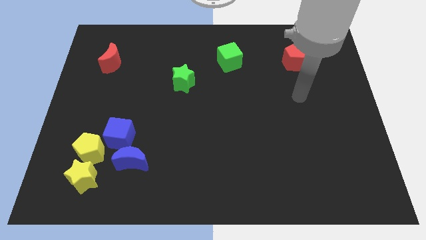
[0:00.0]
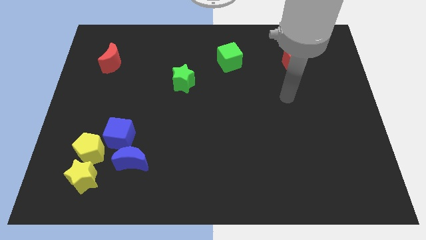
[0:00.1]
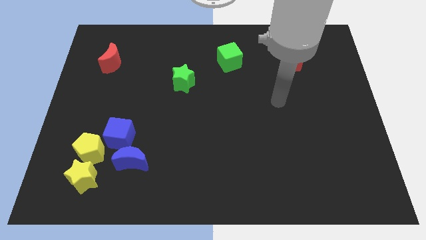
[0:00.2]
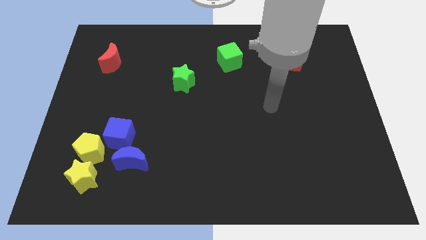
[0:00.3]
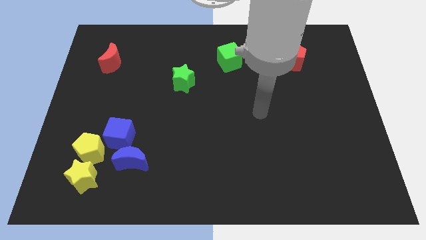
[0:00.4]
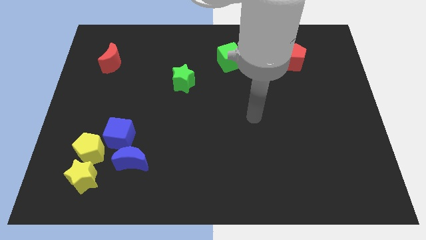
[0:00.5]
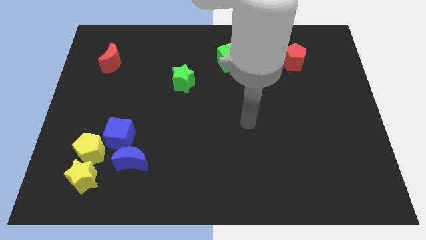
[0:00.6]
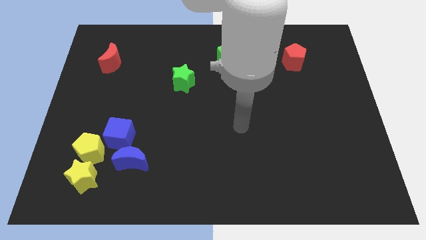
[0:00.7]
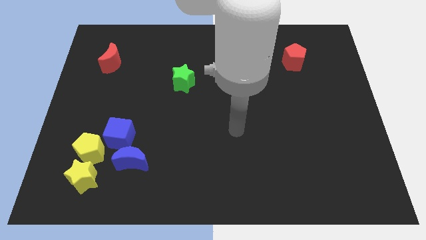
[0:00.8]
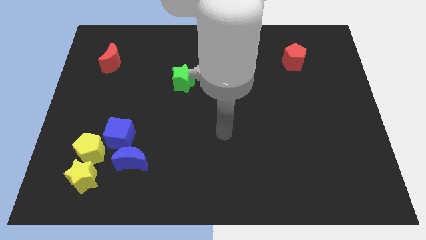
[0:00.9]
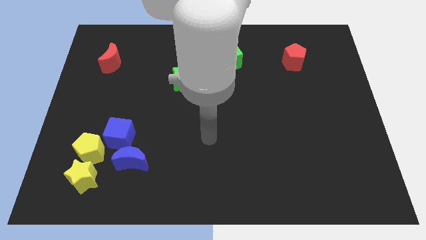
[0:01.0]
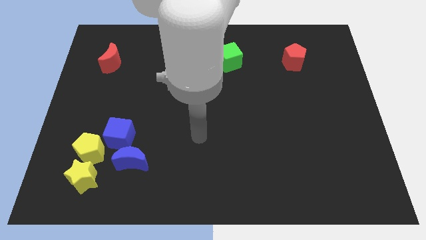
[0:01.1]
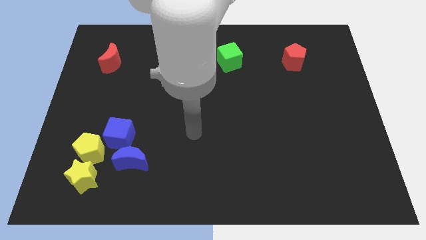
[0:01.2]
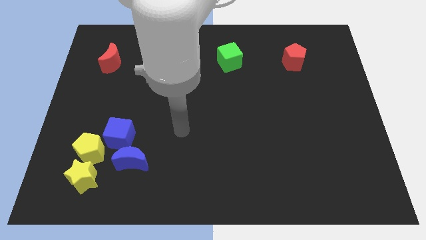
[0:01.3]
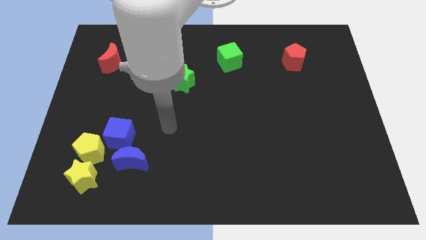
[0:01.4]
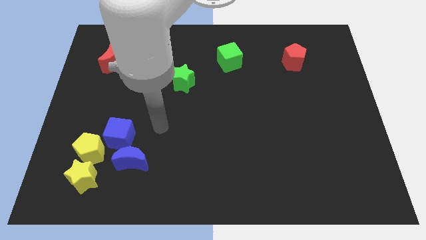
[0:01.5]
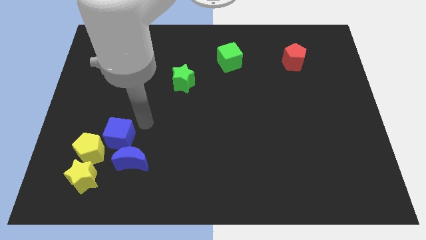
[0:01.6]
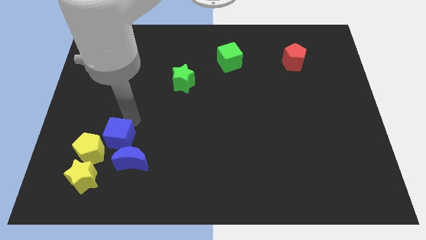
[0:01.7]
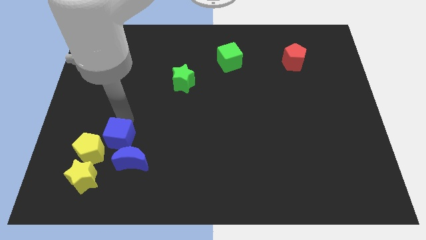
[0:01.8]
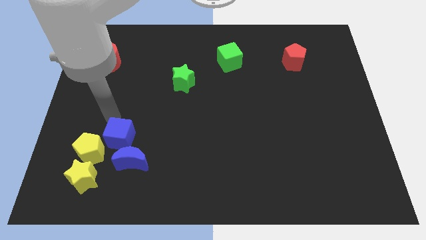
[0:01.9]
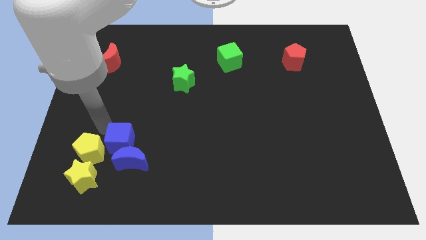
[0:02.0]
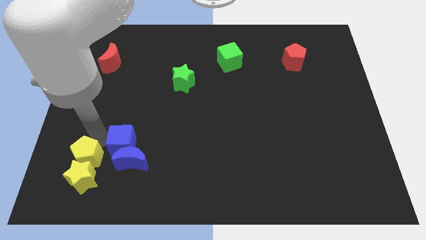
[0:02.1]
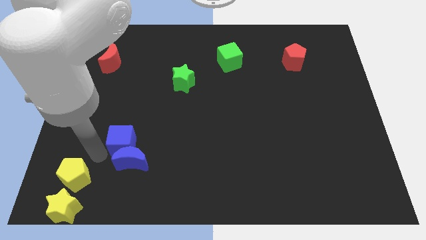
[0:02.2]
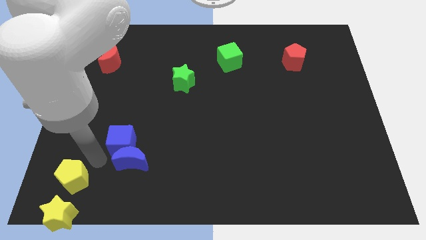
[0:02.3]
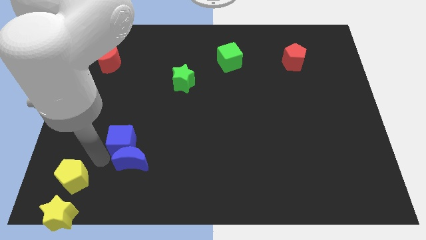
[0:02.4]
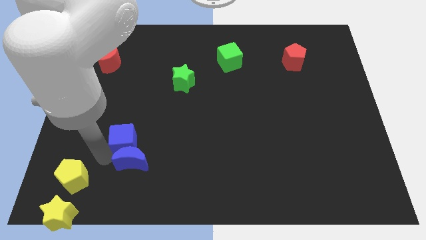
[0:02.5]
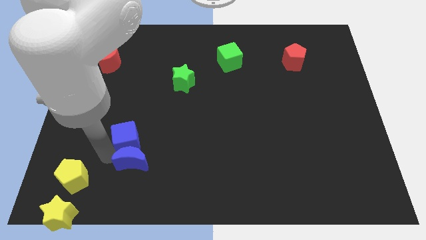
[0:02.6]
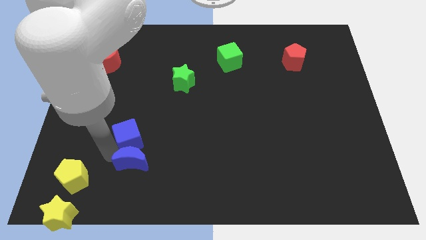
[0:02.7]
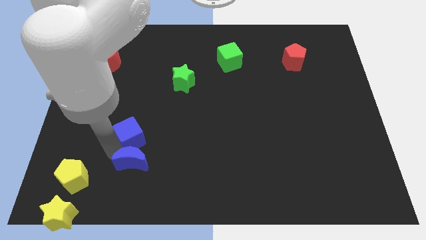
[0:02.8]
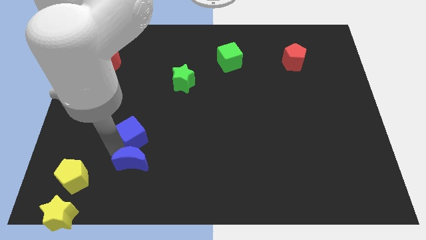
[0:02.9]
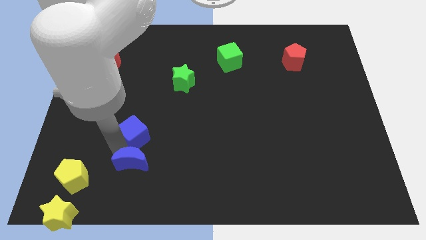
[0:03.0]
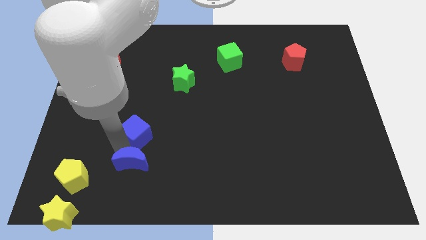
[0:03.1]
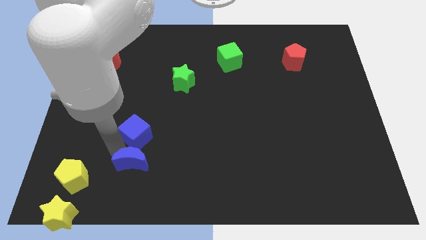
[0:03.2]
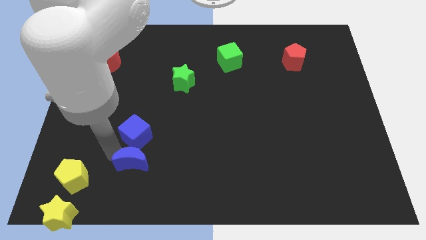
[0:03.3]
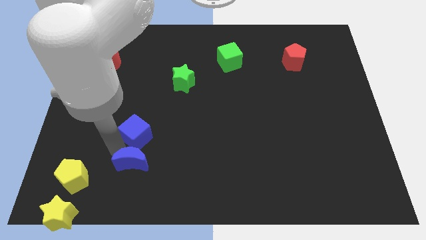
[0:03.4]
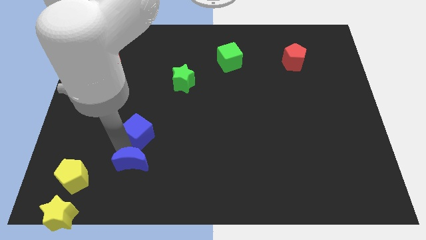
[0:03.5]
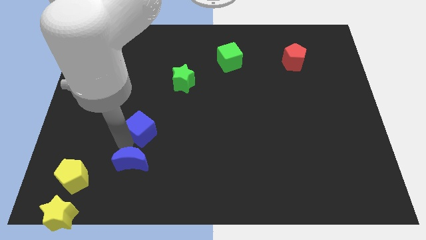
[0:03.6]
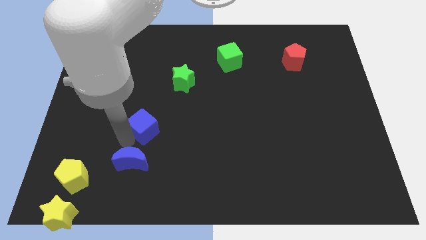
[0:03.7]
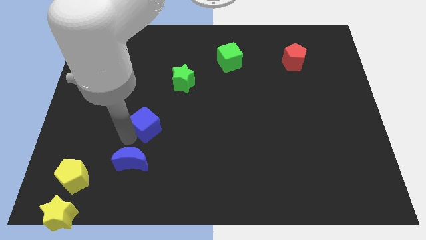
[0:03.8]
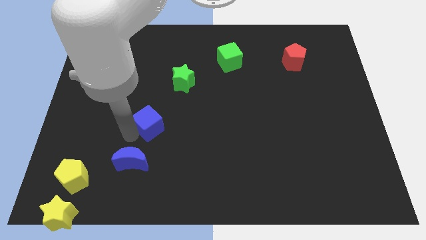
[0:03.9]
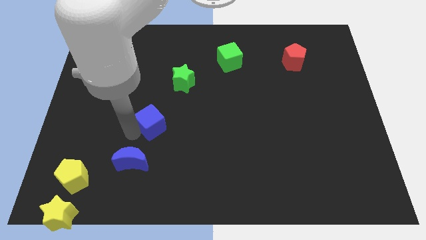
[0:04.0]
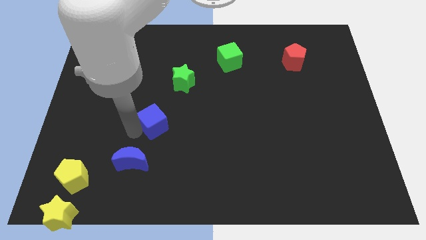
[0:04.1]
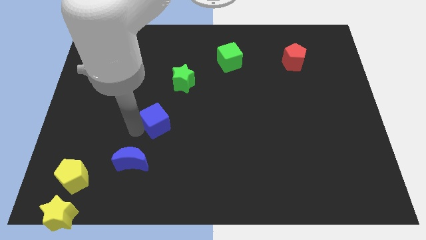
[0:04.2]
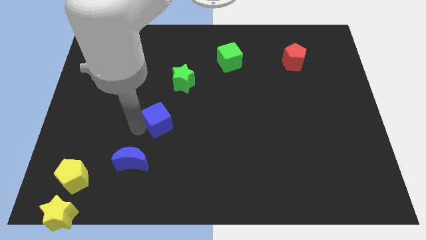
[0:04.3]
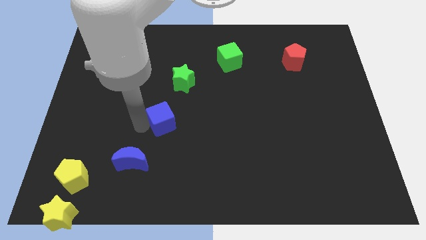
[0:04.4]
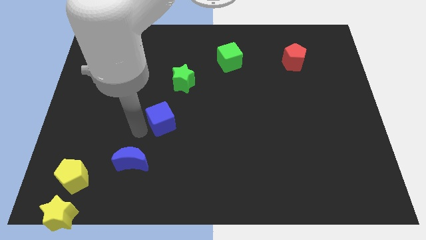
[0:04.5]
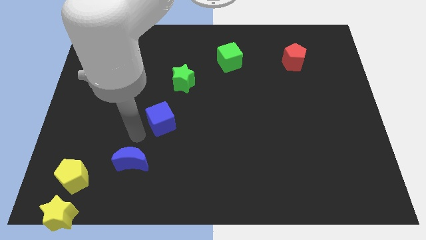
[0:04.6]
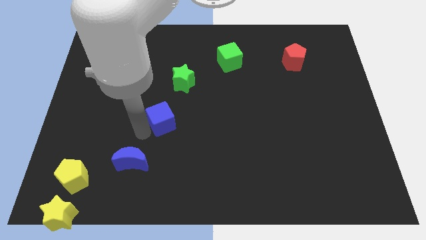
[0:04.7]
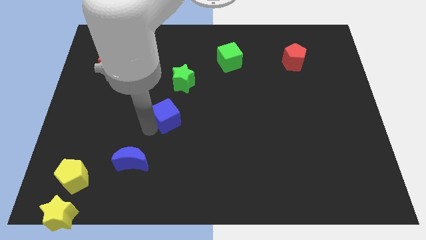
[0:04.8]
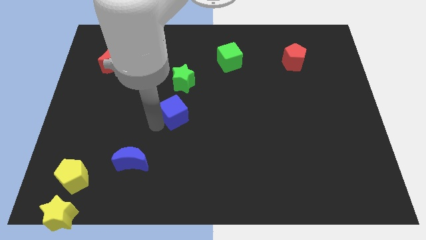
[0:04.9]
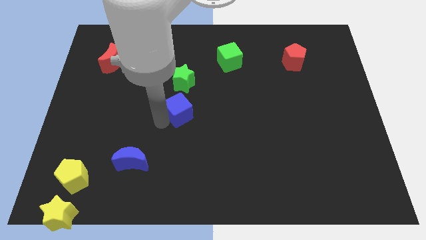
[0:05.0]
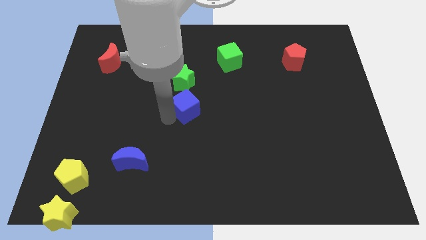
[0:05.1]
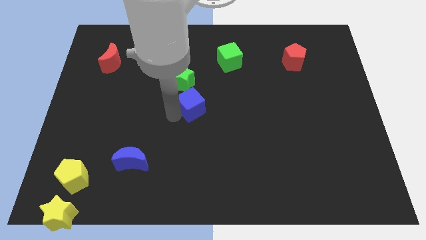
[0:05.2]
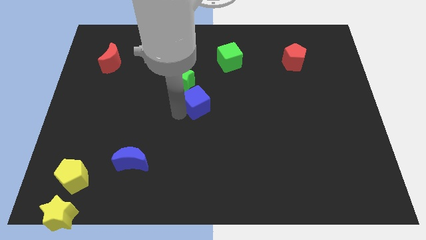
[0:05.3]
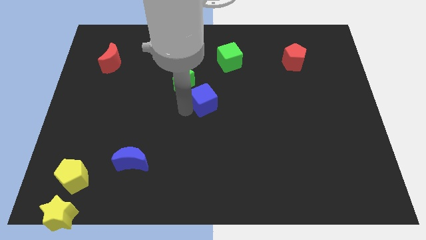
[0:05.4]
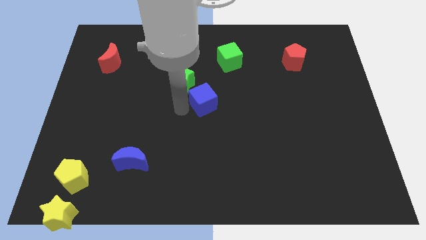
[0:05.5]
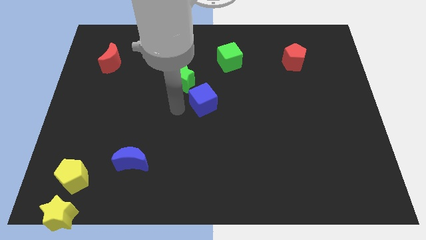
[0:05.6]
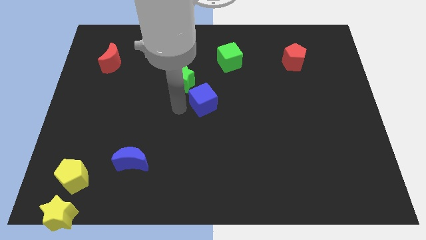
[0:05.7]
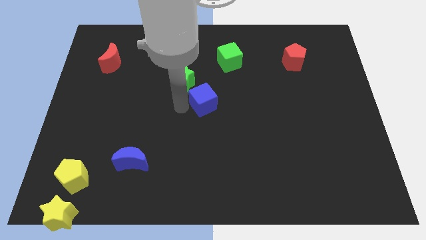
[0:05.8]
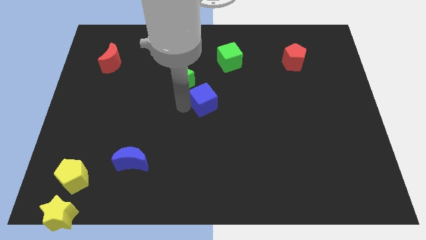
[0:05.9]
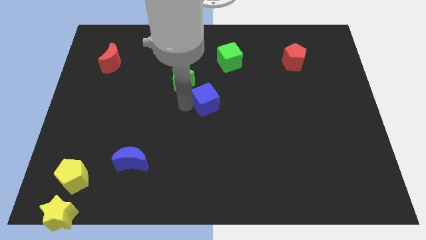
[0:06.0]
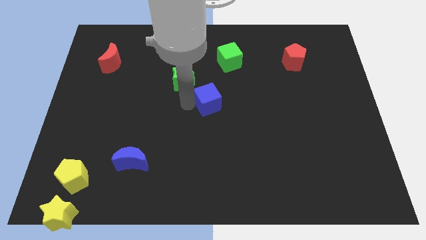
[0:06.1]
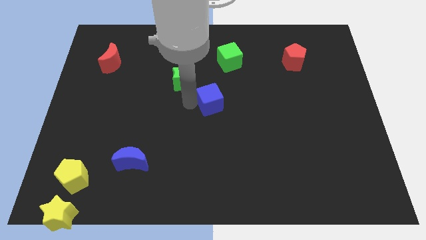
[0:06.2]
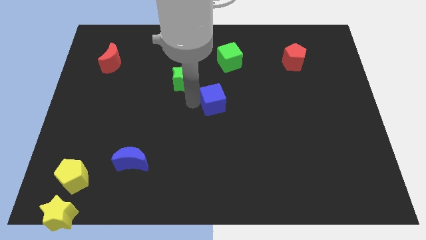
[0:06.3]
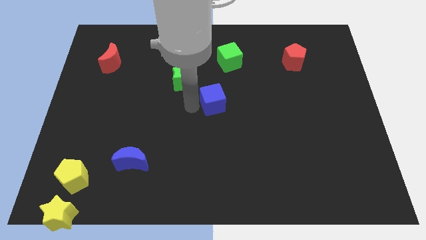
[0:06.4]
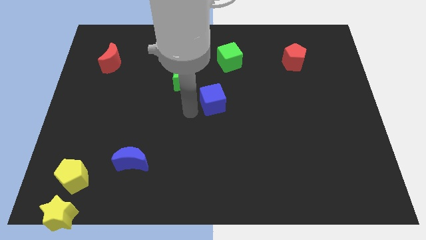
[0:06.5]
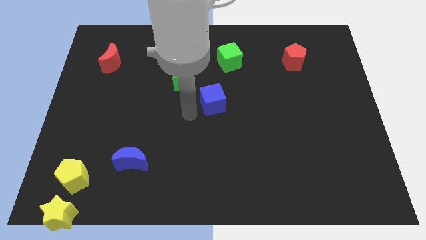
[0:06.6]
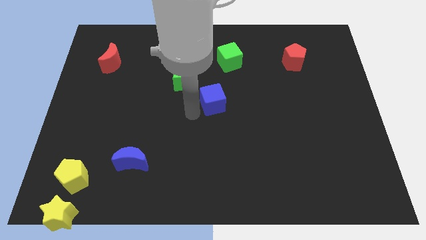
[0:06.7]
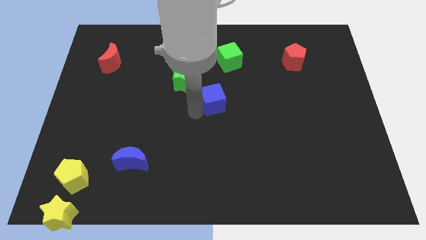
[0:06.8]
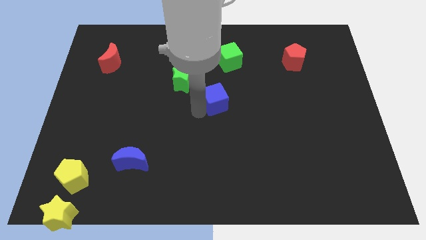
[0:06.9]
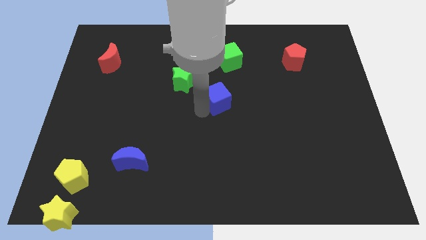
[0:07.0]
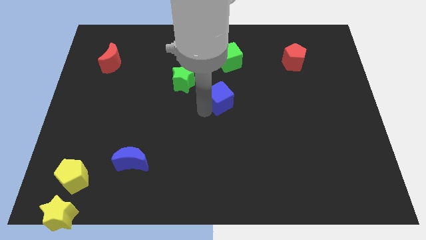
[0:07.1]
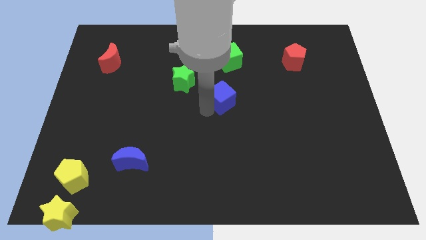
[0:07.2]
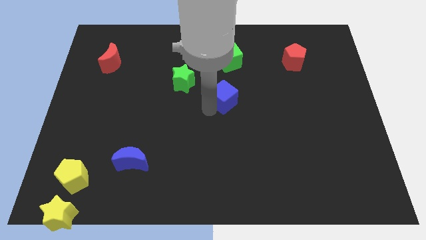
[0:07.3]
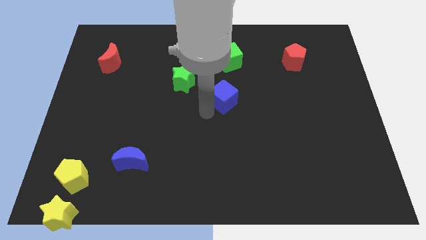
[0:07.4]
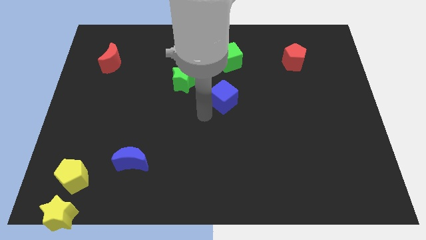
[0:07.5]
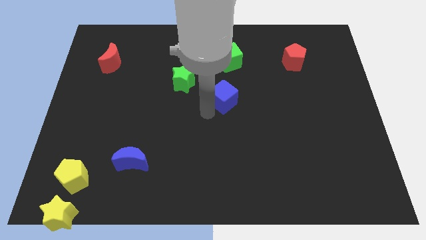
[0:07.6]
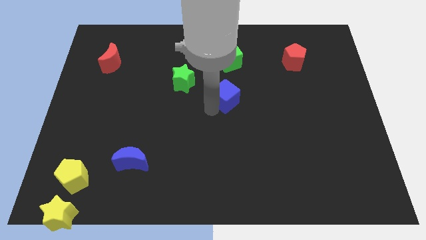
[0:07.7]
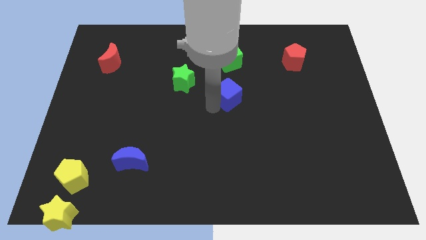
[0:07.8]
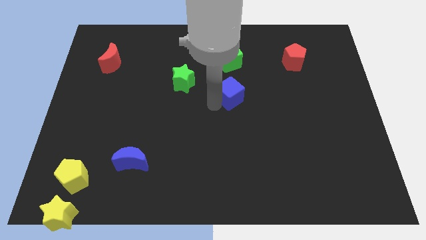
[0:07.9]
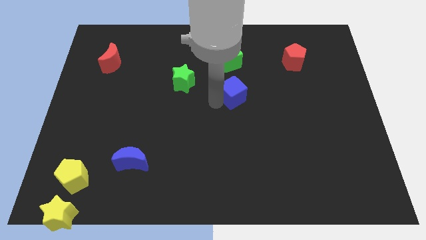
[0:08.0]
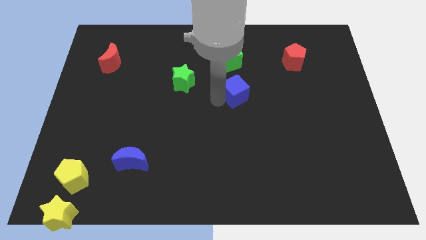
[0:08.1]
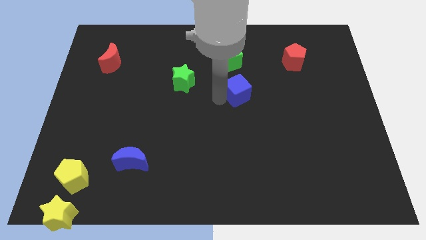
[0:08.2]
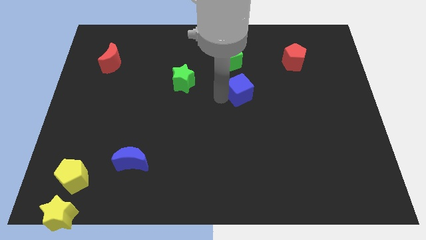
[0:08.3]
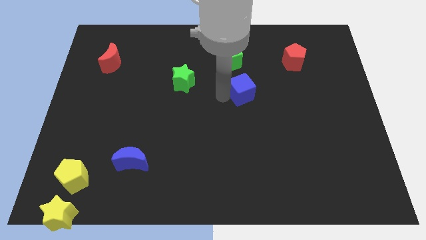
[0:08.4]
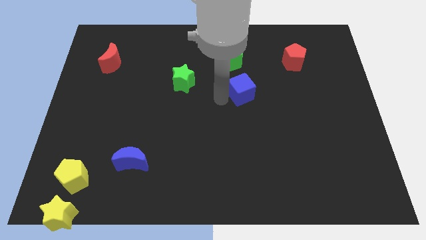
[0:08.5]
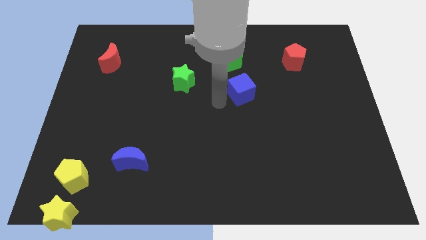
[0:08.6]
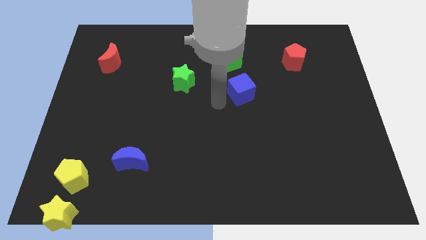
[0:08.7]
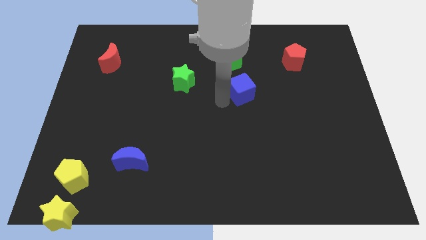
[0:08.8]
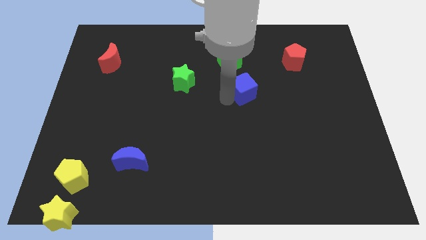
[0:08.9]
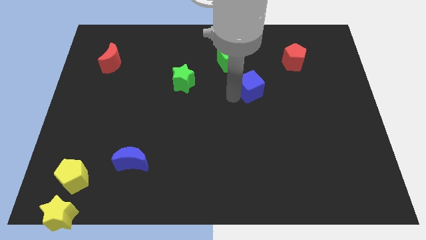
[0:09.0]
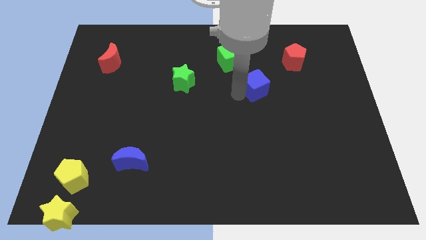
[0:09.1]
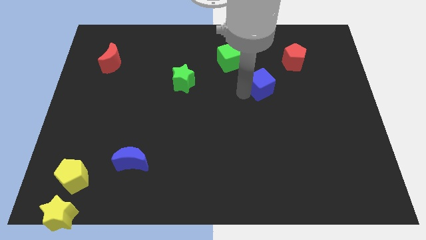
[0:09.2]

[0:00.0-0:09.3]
move the blue cube to the bottom left of the red pentagon
